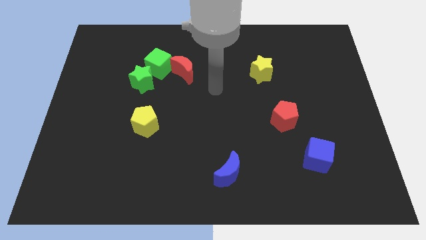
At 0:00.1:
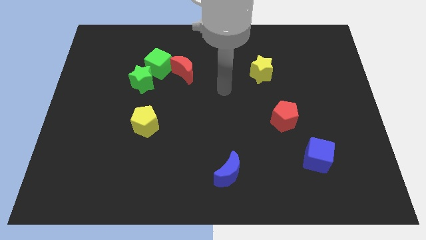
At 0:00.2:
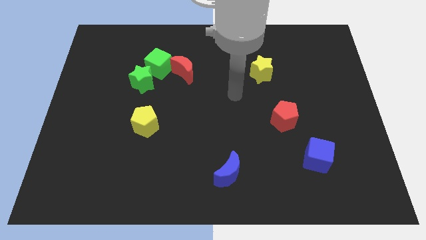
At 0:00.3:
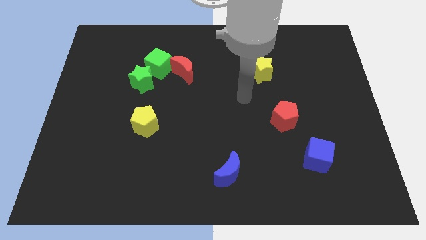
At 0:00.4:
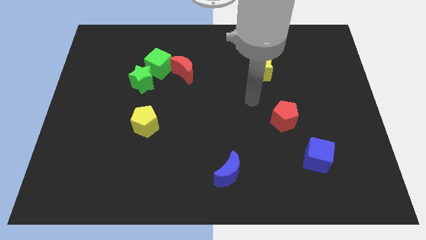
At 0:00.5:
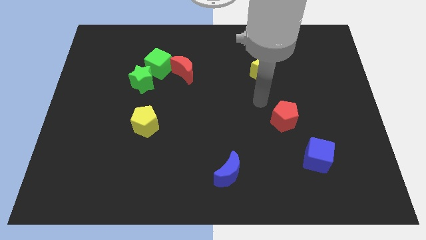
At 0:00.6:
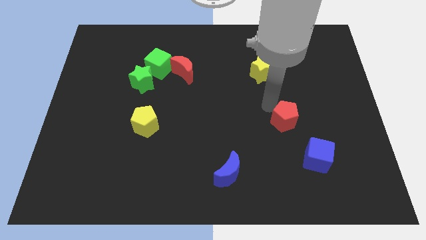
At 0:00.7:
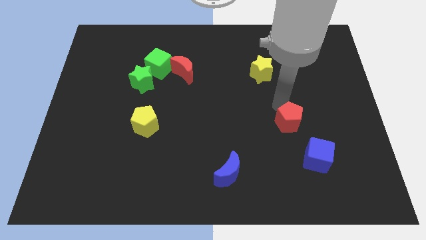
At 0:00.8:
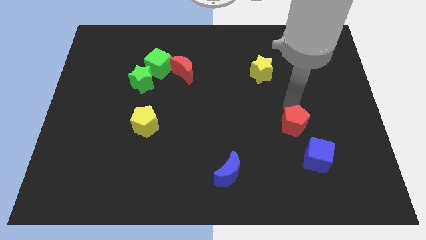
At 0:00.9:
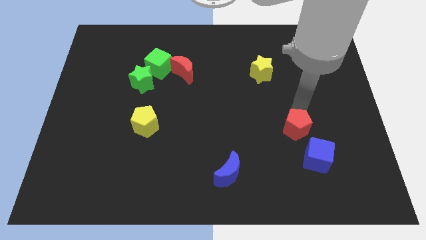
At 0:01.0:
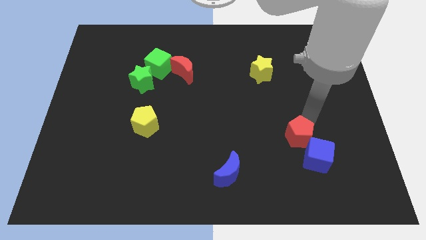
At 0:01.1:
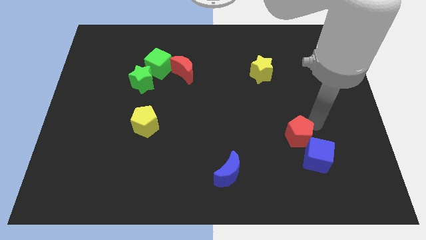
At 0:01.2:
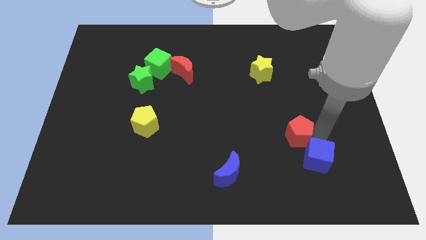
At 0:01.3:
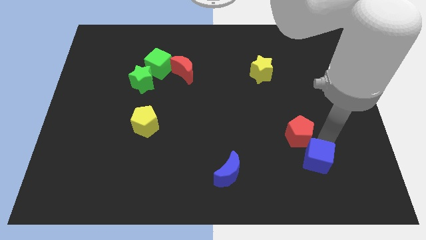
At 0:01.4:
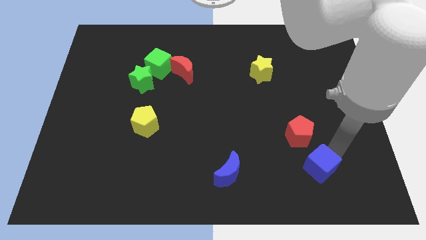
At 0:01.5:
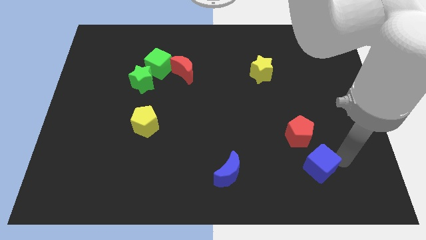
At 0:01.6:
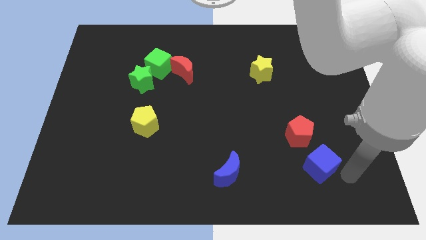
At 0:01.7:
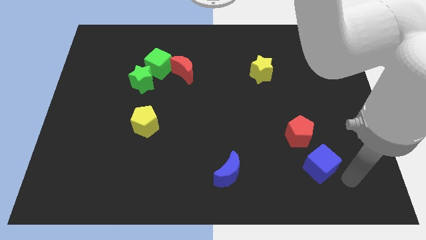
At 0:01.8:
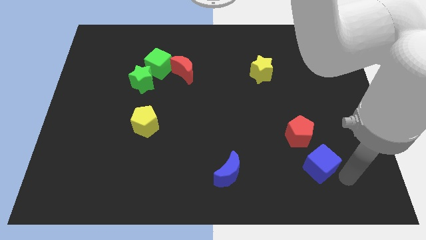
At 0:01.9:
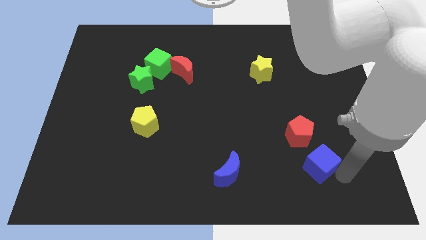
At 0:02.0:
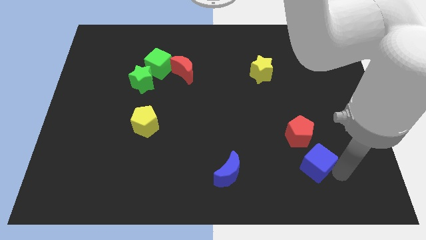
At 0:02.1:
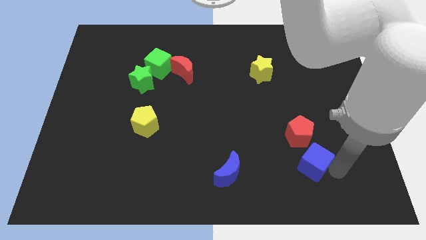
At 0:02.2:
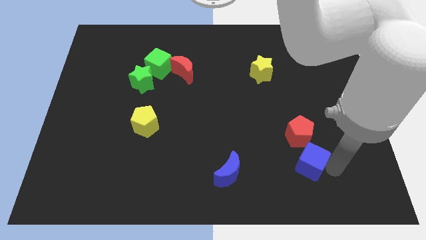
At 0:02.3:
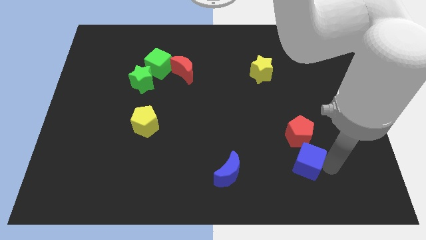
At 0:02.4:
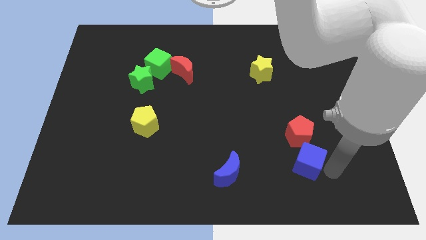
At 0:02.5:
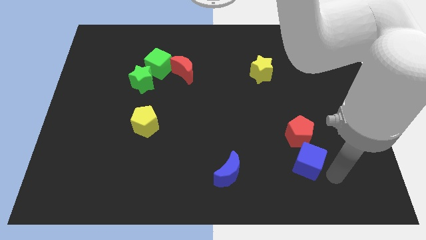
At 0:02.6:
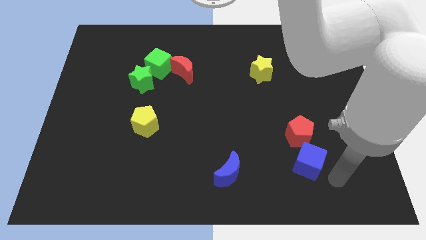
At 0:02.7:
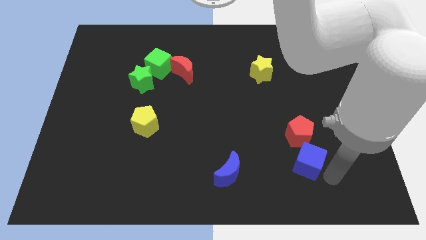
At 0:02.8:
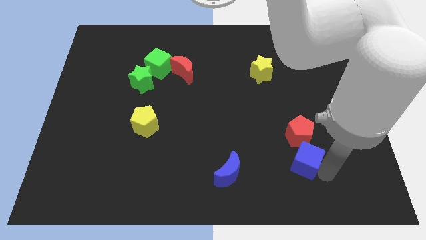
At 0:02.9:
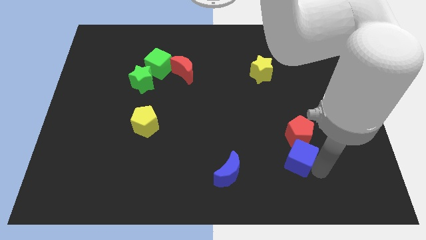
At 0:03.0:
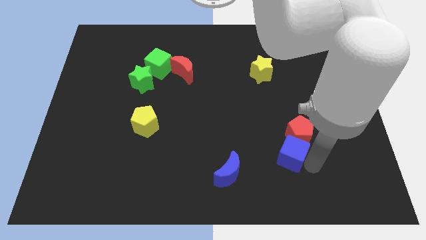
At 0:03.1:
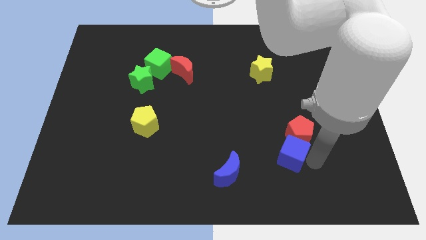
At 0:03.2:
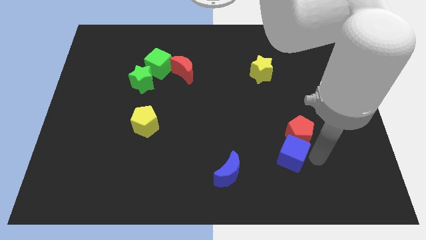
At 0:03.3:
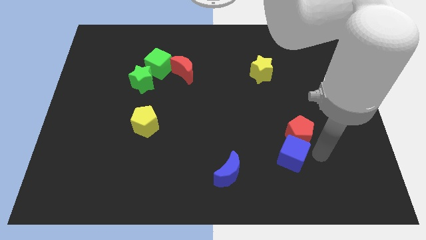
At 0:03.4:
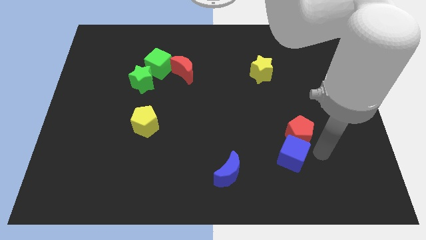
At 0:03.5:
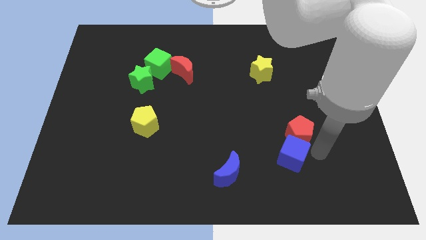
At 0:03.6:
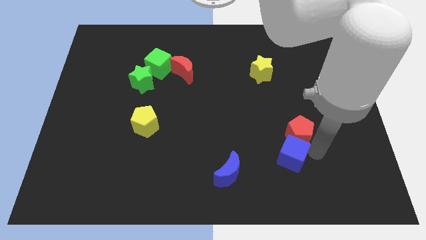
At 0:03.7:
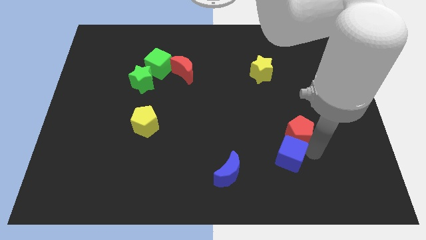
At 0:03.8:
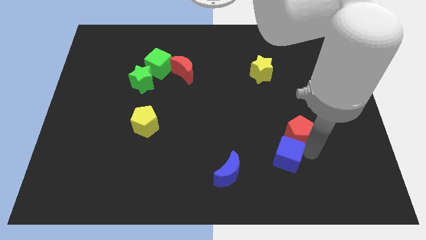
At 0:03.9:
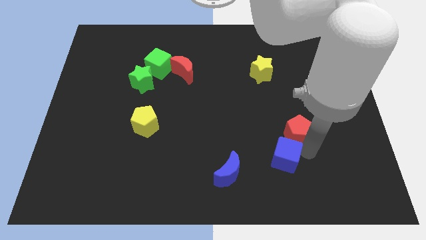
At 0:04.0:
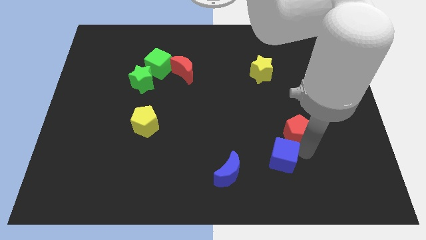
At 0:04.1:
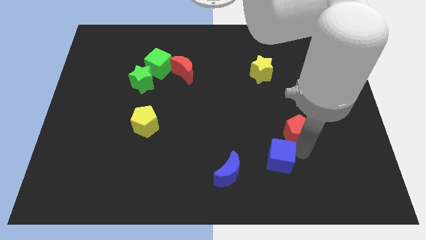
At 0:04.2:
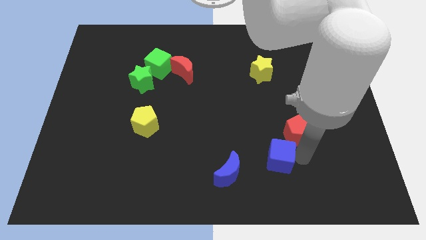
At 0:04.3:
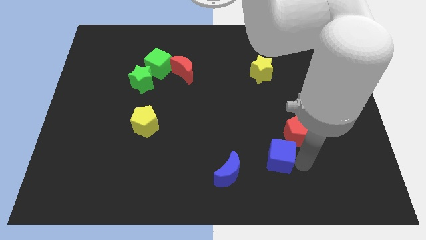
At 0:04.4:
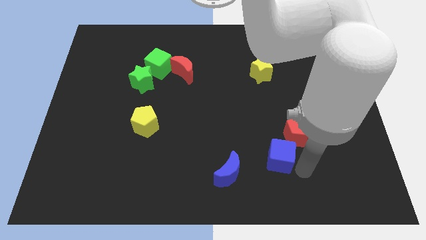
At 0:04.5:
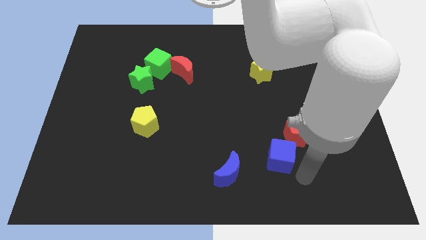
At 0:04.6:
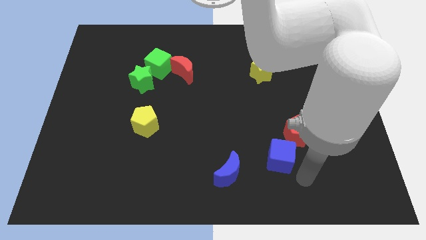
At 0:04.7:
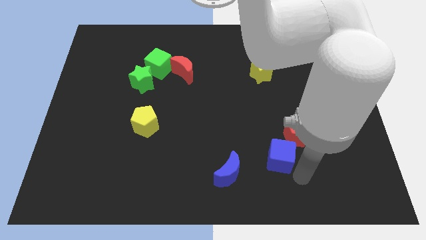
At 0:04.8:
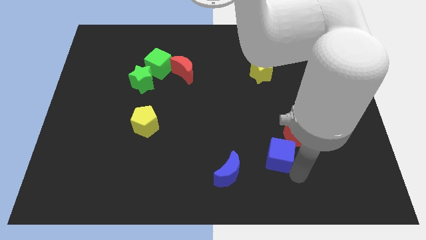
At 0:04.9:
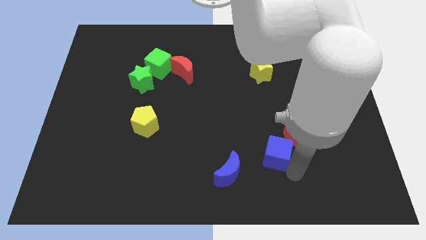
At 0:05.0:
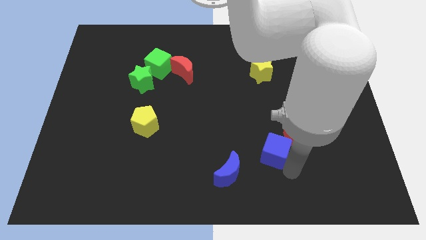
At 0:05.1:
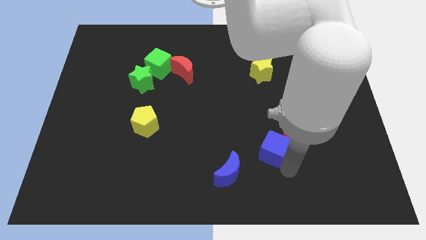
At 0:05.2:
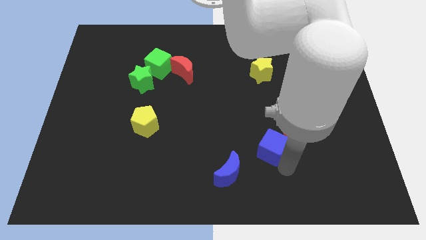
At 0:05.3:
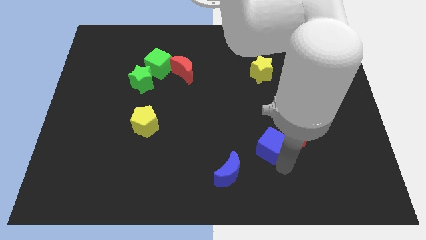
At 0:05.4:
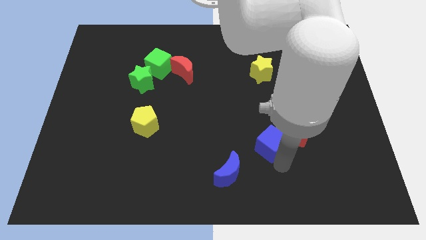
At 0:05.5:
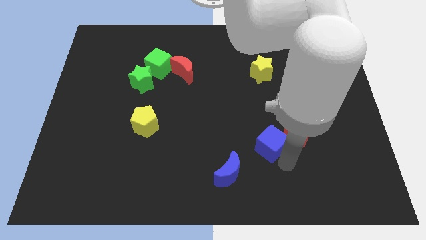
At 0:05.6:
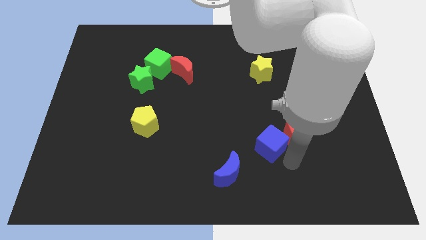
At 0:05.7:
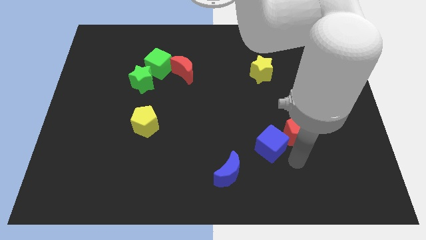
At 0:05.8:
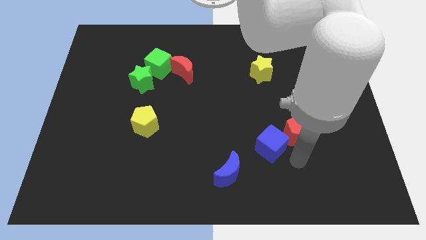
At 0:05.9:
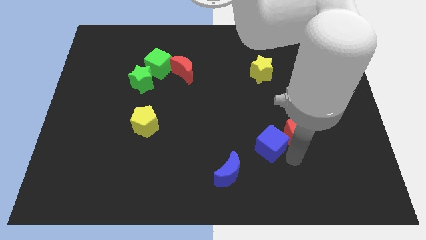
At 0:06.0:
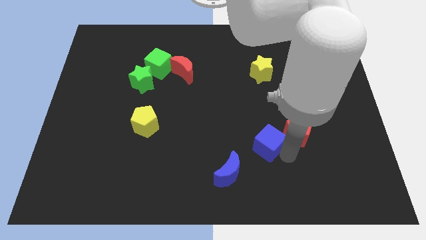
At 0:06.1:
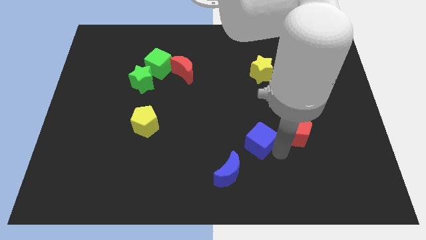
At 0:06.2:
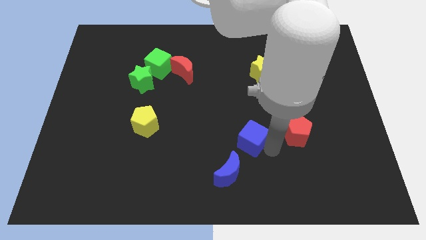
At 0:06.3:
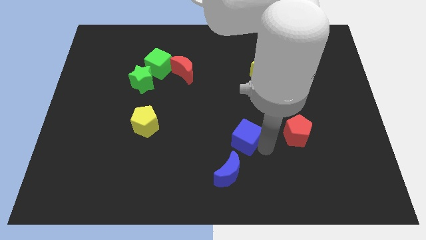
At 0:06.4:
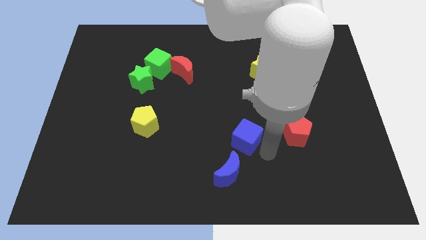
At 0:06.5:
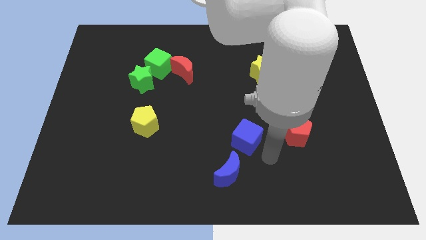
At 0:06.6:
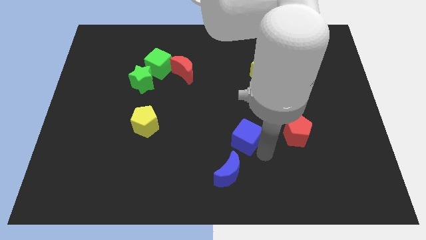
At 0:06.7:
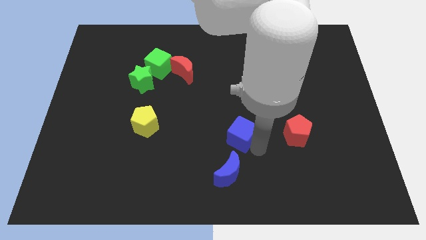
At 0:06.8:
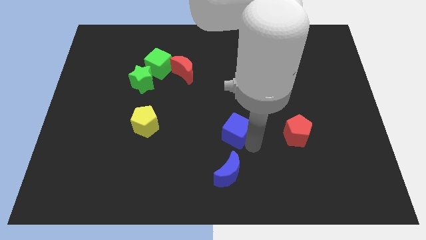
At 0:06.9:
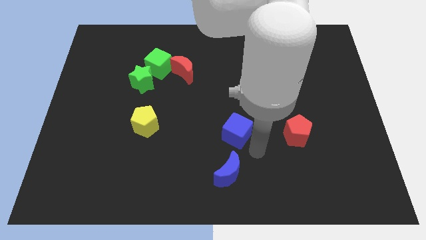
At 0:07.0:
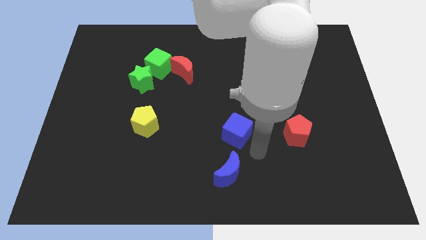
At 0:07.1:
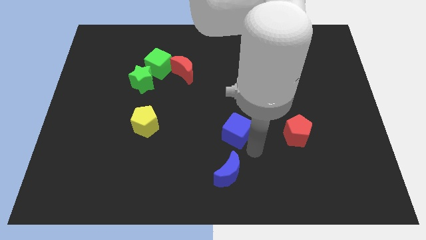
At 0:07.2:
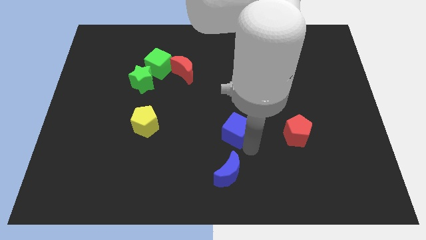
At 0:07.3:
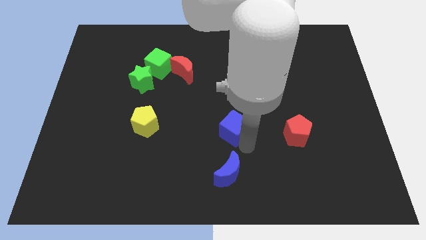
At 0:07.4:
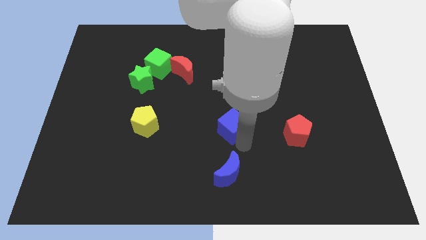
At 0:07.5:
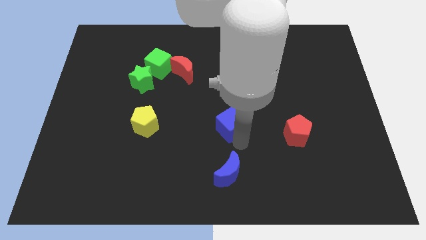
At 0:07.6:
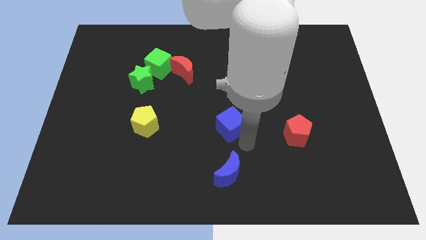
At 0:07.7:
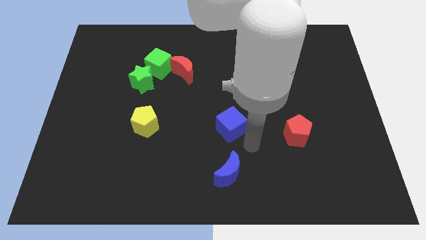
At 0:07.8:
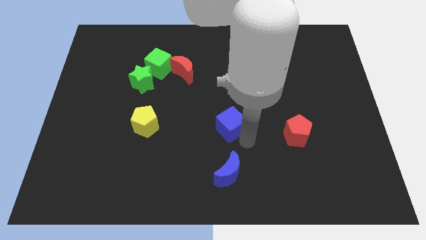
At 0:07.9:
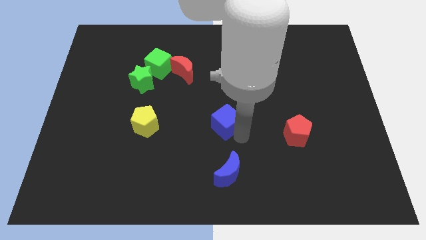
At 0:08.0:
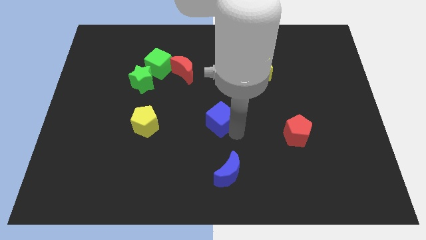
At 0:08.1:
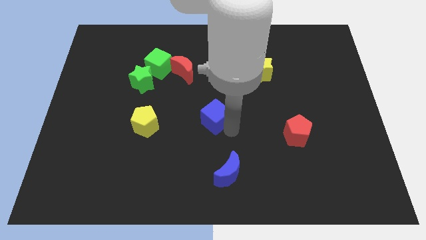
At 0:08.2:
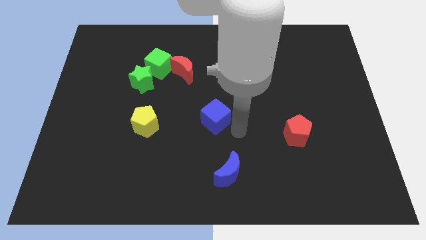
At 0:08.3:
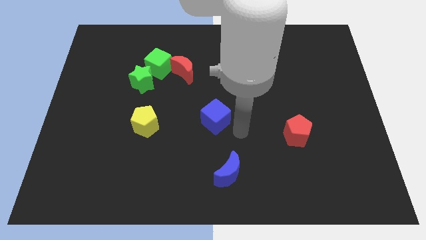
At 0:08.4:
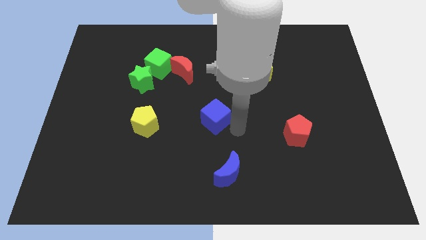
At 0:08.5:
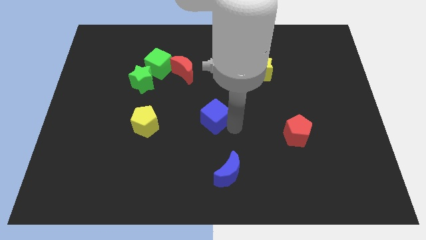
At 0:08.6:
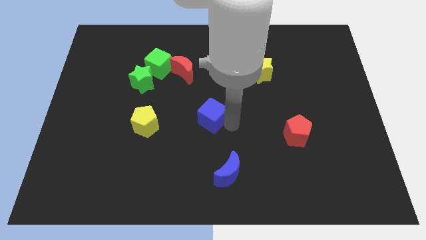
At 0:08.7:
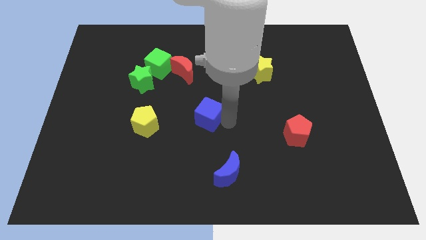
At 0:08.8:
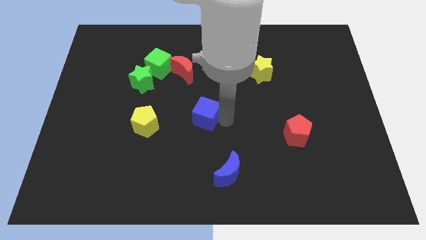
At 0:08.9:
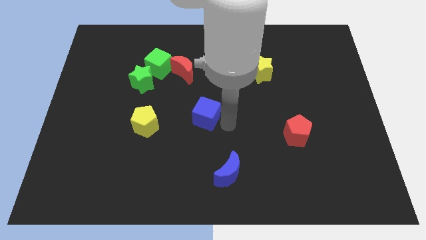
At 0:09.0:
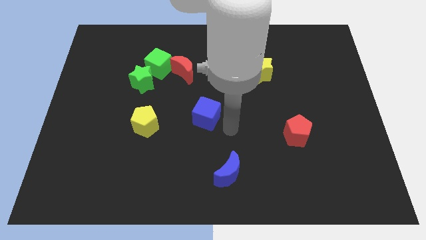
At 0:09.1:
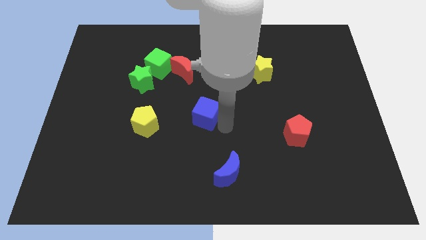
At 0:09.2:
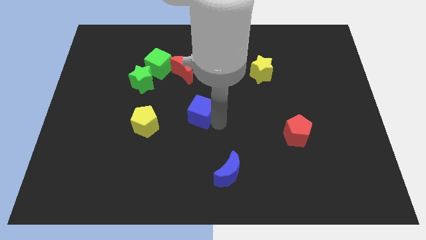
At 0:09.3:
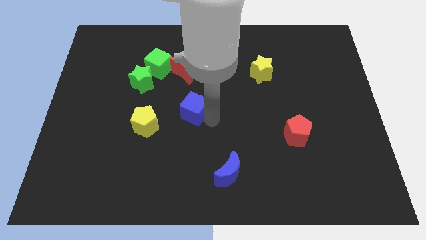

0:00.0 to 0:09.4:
push the blue cube below the red moon
